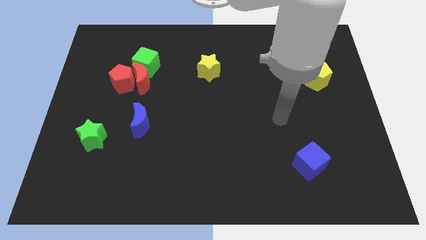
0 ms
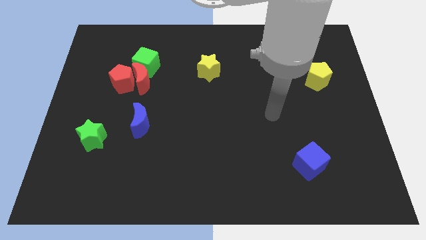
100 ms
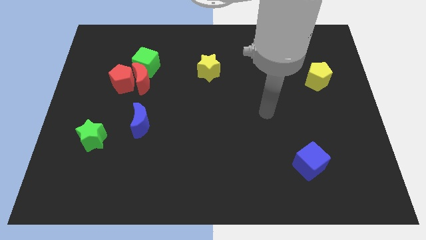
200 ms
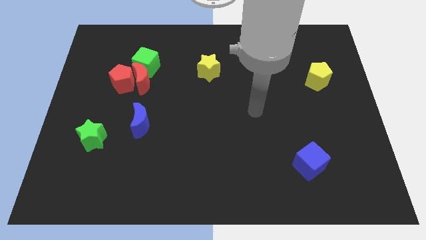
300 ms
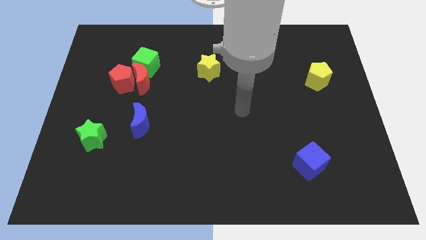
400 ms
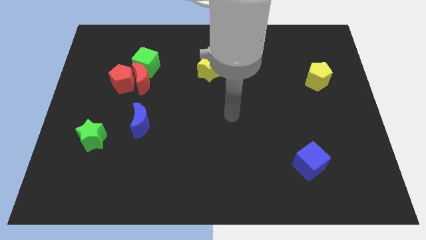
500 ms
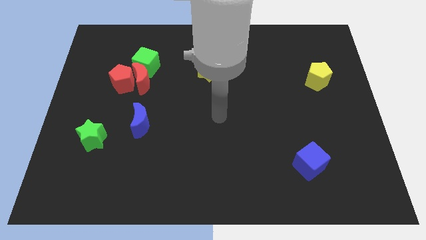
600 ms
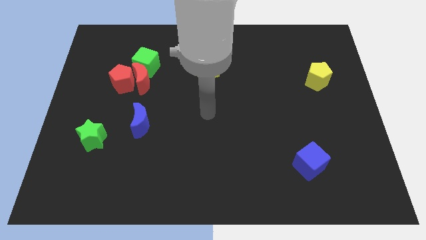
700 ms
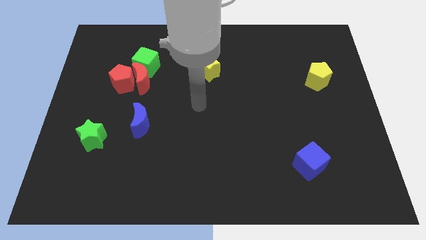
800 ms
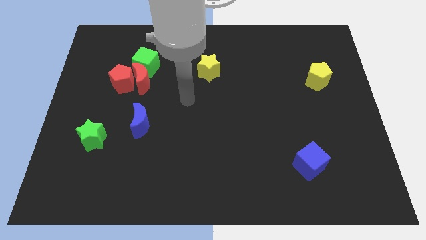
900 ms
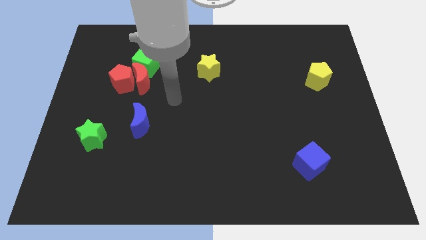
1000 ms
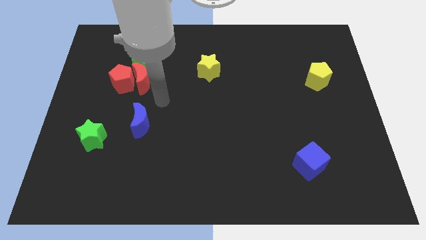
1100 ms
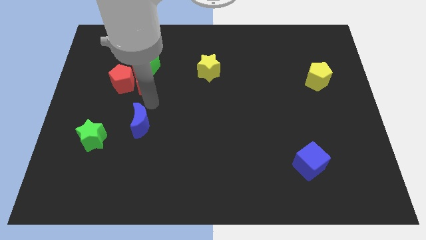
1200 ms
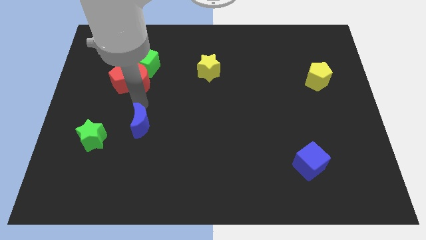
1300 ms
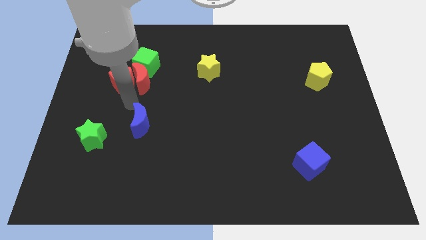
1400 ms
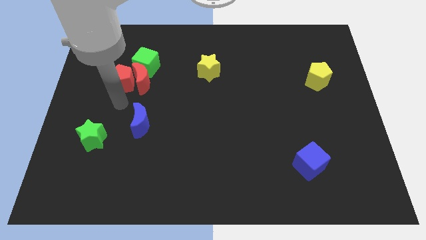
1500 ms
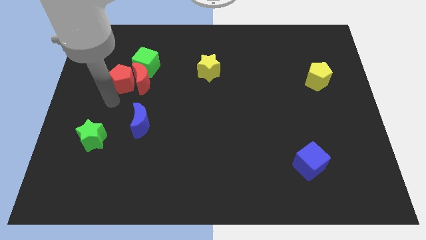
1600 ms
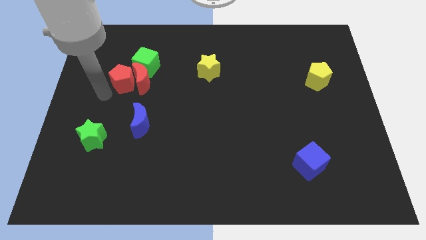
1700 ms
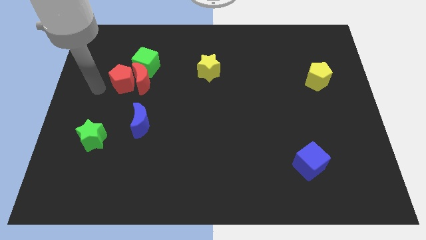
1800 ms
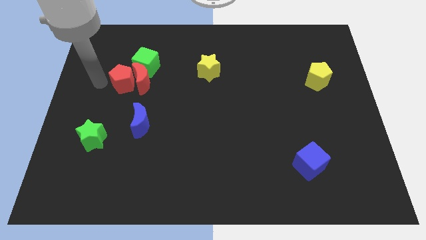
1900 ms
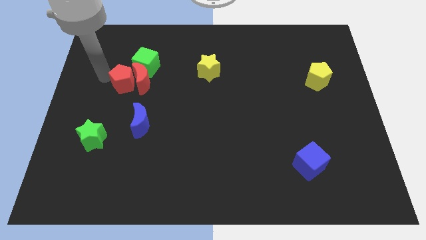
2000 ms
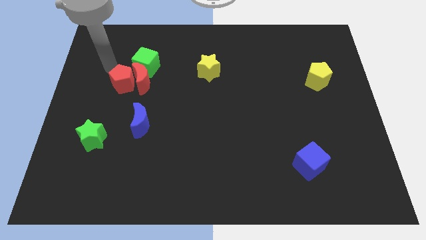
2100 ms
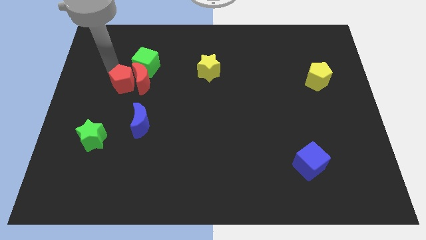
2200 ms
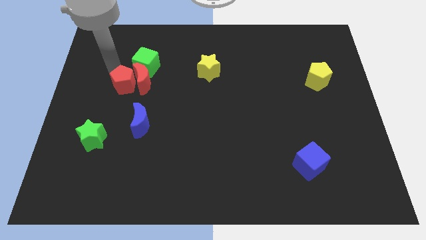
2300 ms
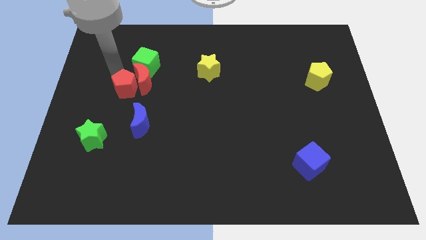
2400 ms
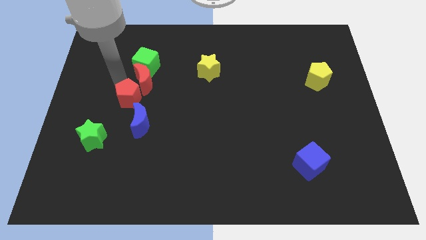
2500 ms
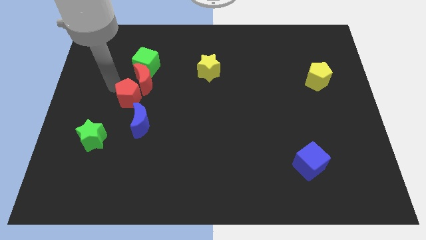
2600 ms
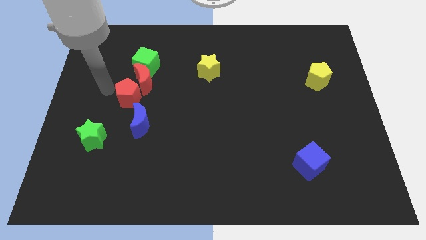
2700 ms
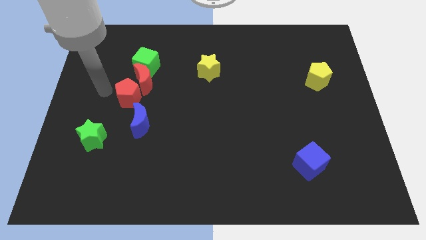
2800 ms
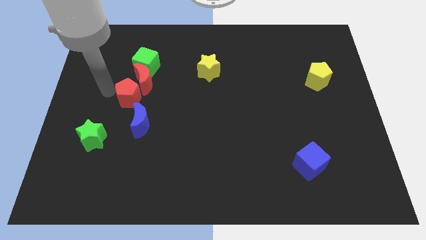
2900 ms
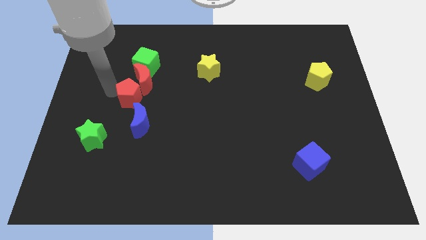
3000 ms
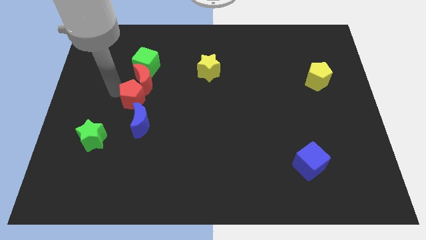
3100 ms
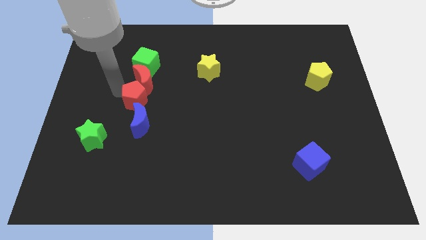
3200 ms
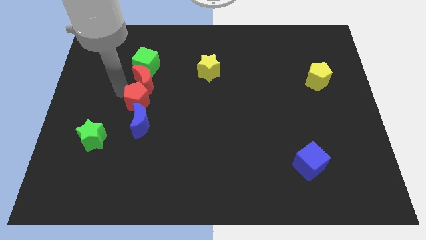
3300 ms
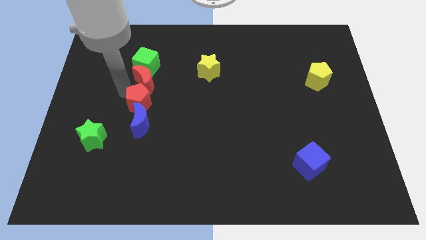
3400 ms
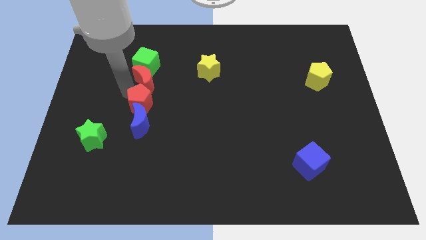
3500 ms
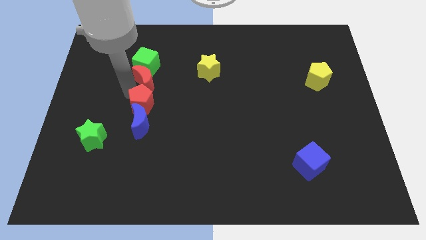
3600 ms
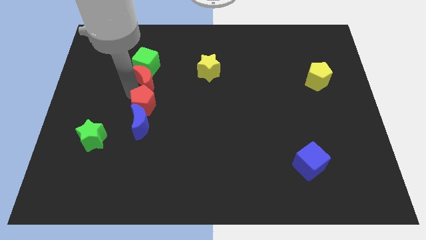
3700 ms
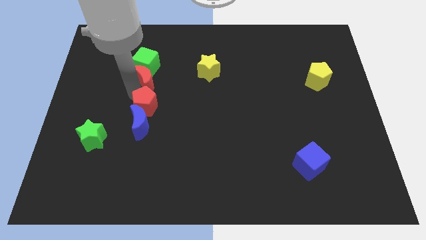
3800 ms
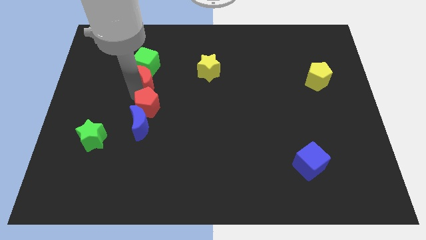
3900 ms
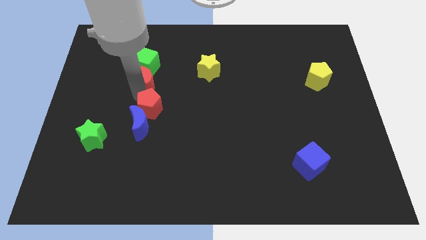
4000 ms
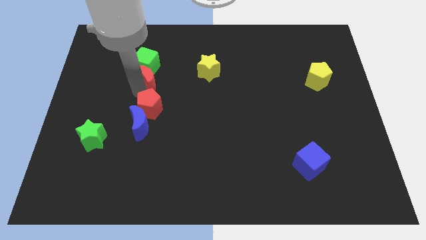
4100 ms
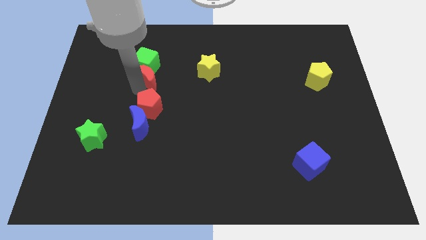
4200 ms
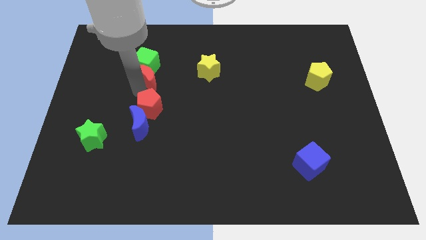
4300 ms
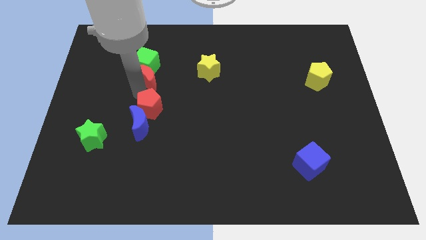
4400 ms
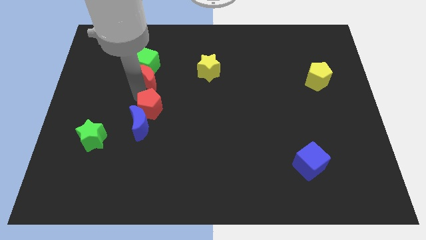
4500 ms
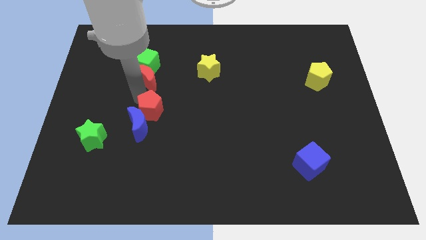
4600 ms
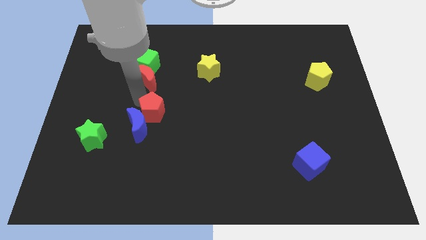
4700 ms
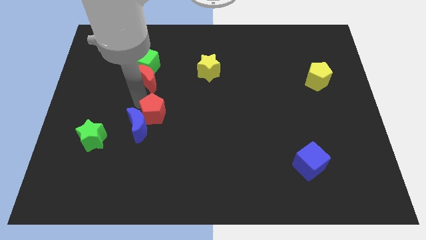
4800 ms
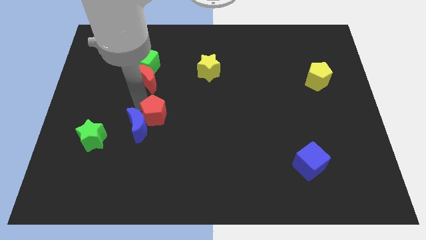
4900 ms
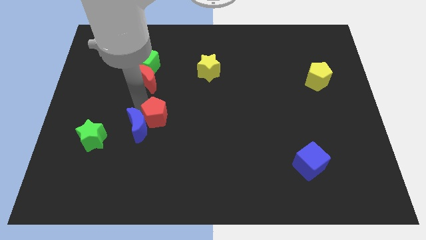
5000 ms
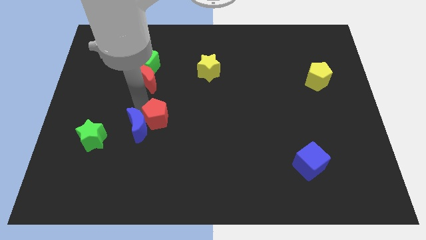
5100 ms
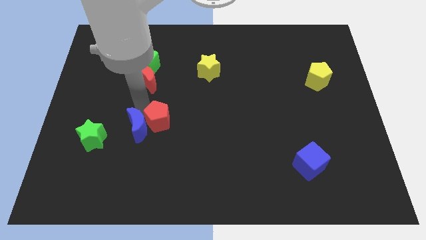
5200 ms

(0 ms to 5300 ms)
push the red pentagon diagonally down and to the right of the blue moon
